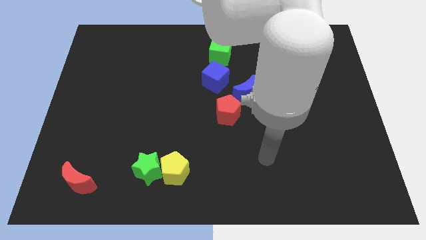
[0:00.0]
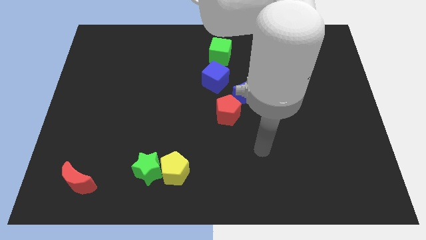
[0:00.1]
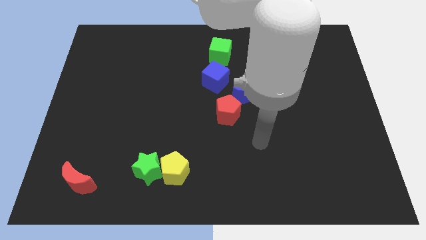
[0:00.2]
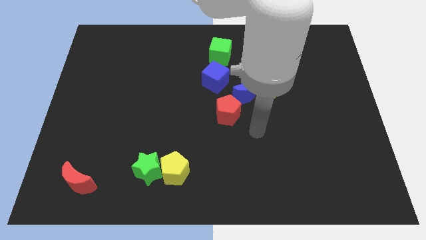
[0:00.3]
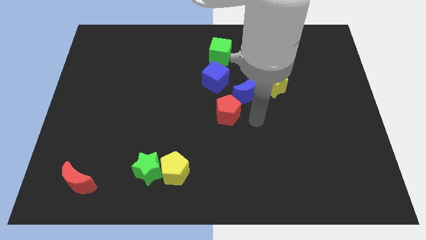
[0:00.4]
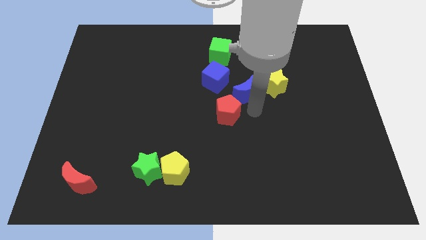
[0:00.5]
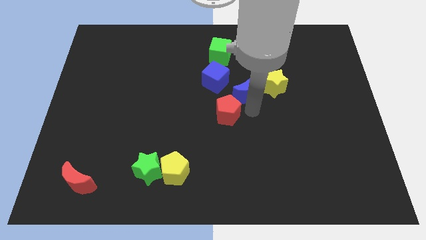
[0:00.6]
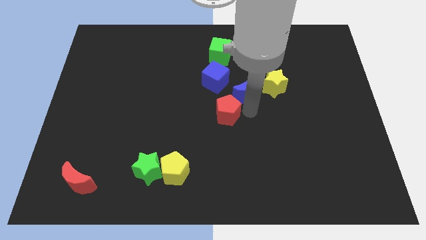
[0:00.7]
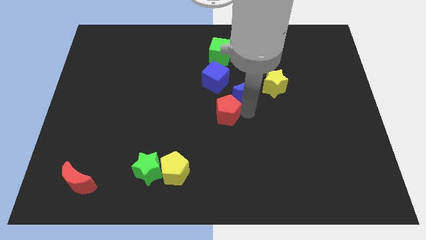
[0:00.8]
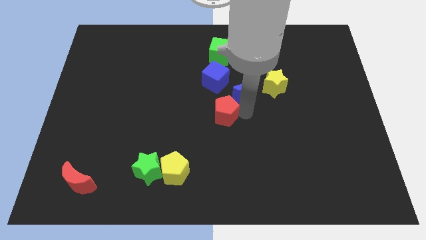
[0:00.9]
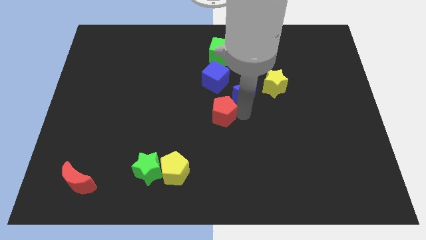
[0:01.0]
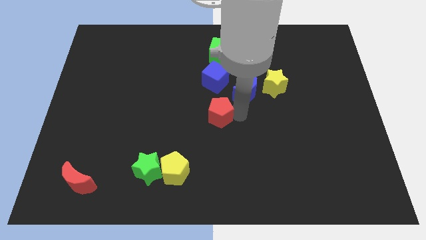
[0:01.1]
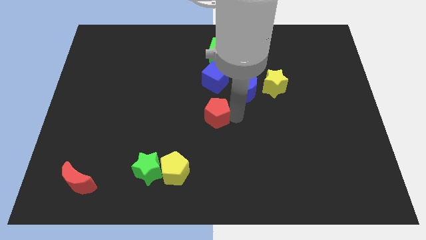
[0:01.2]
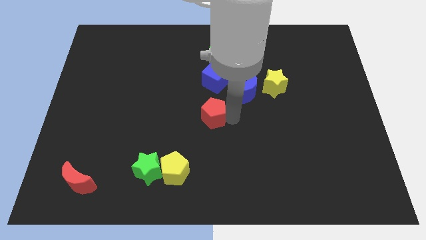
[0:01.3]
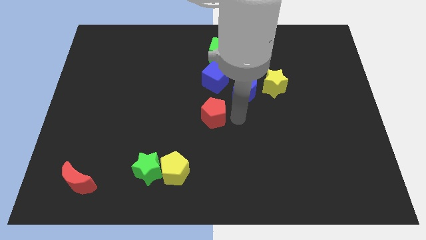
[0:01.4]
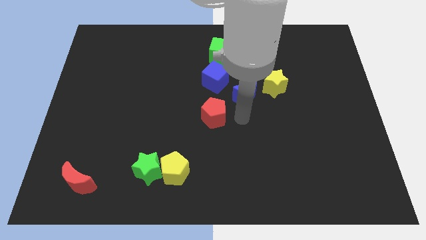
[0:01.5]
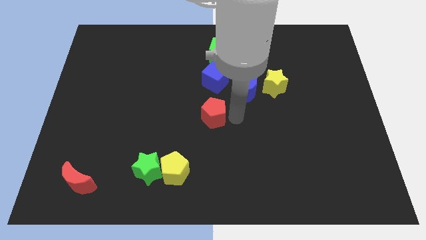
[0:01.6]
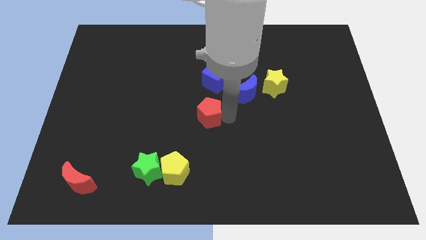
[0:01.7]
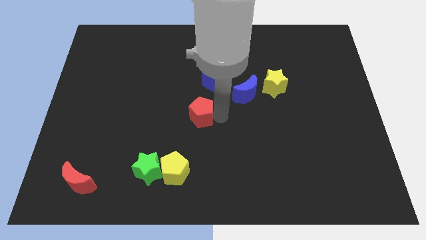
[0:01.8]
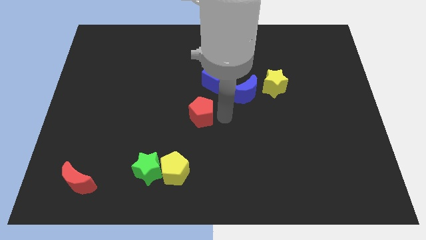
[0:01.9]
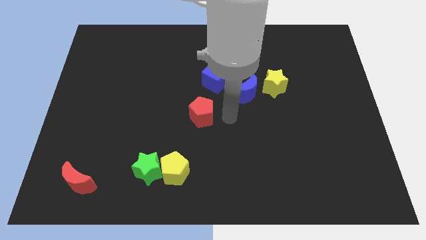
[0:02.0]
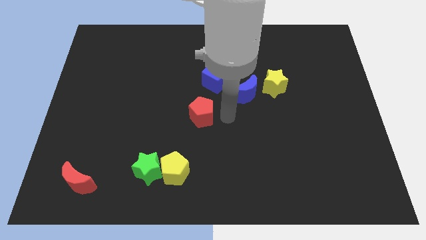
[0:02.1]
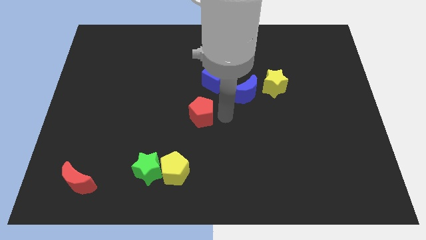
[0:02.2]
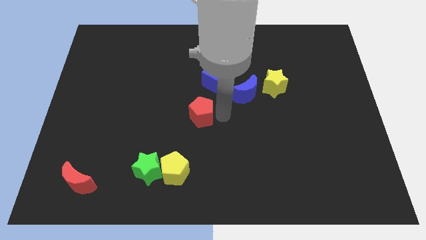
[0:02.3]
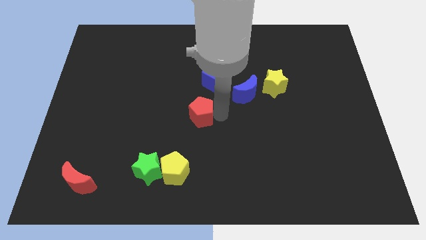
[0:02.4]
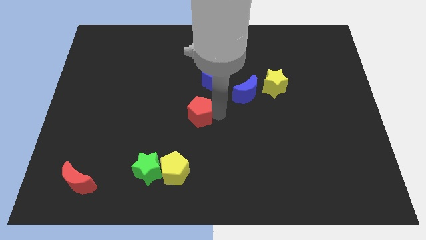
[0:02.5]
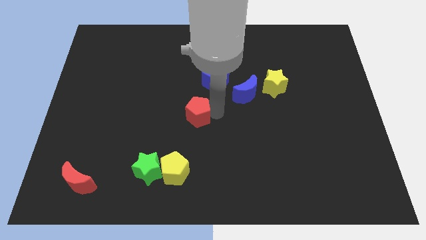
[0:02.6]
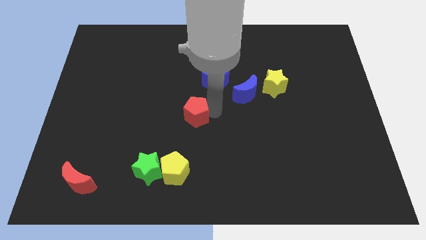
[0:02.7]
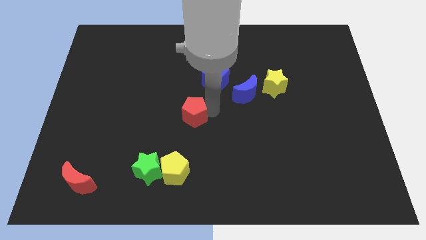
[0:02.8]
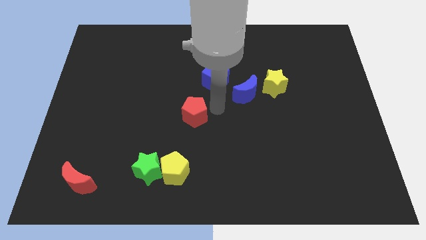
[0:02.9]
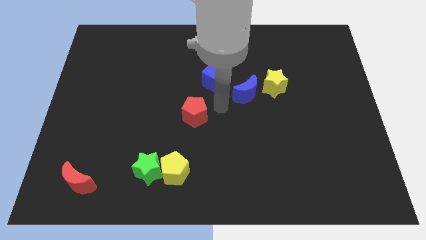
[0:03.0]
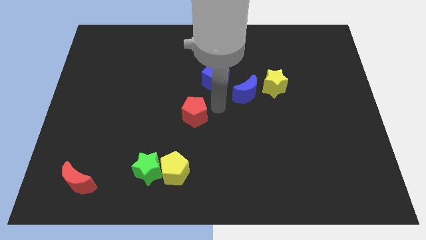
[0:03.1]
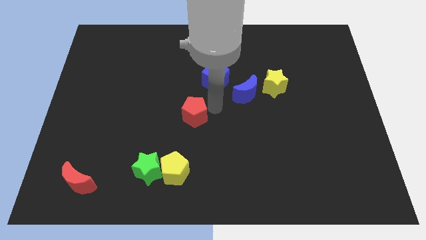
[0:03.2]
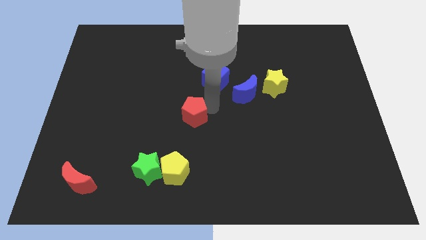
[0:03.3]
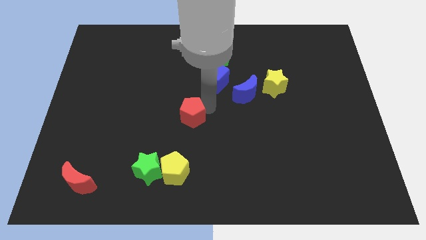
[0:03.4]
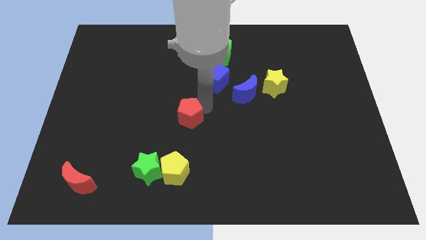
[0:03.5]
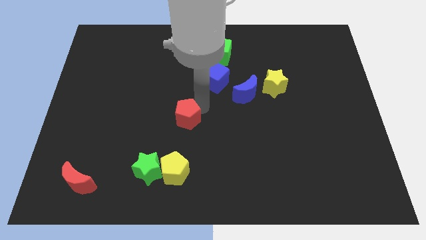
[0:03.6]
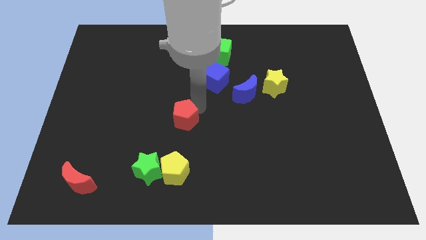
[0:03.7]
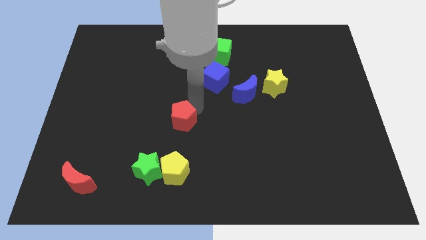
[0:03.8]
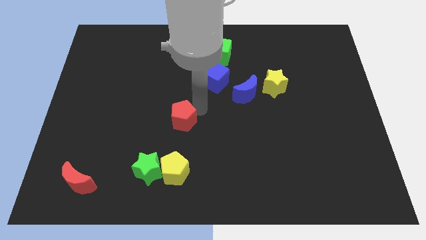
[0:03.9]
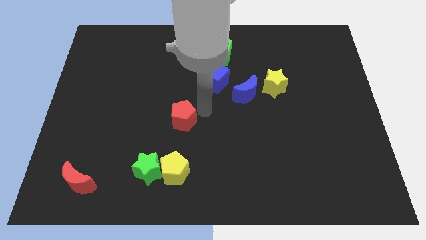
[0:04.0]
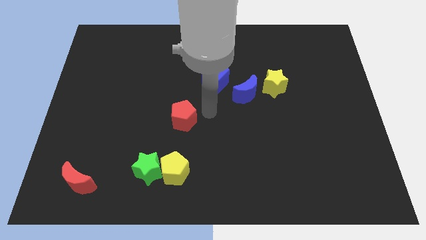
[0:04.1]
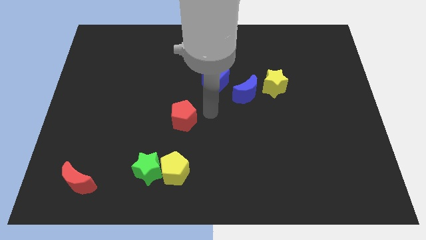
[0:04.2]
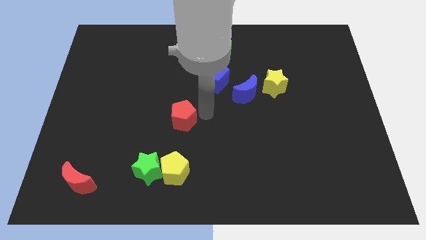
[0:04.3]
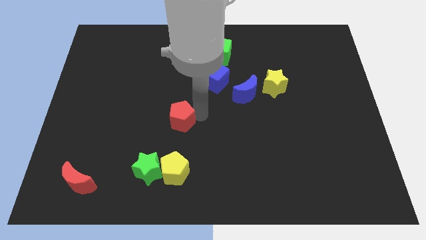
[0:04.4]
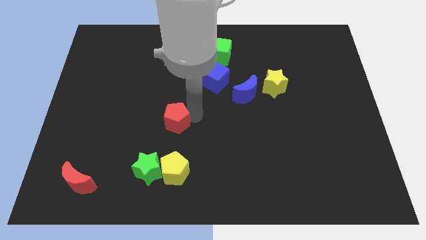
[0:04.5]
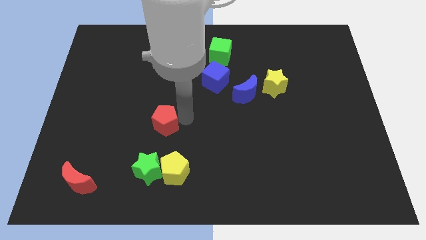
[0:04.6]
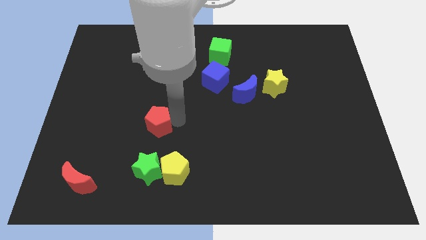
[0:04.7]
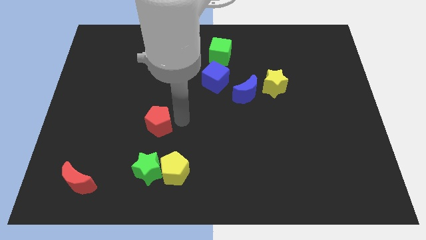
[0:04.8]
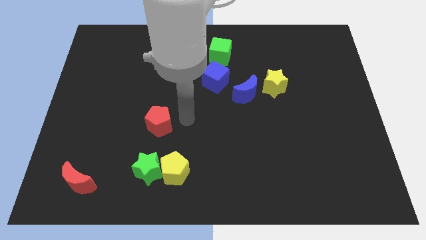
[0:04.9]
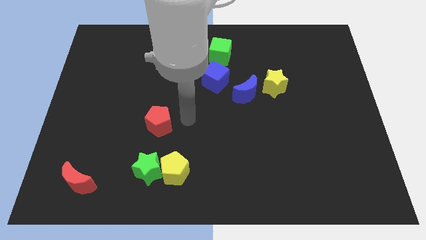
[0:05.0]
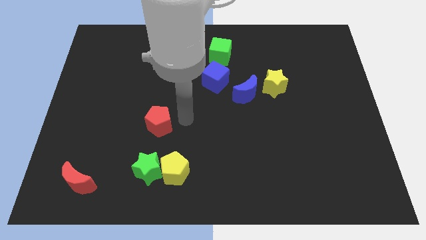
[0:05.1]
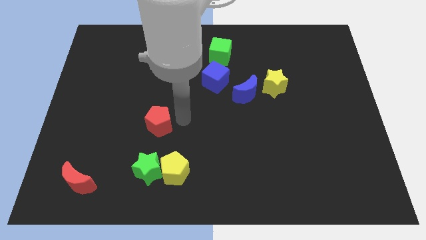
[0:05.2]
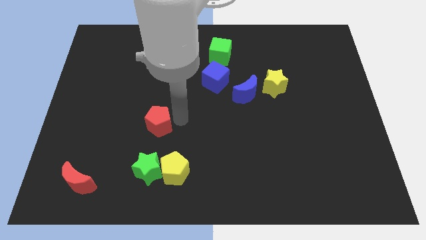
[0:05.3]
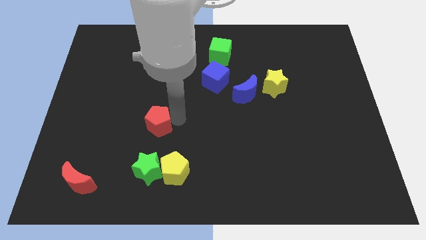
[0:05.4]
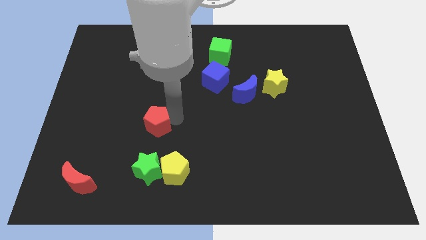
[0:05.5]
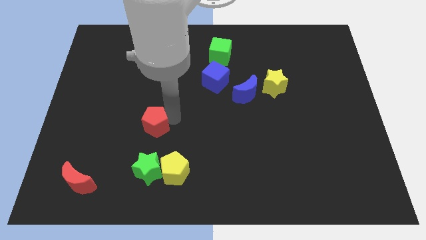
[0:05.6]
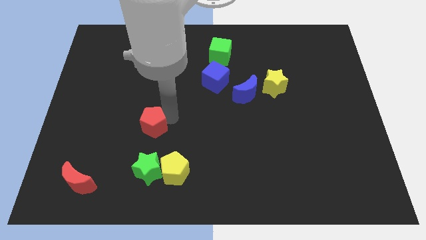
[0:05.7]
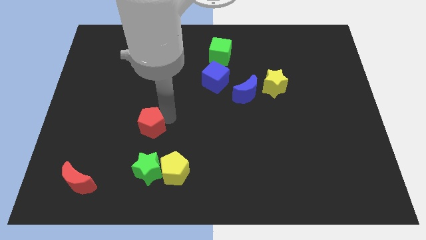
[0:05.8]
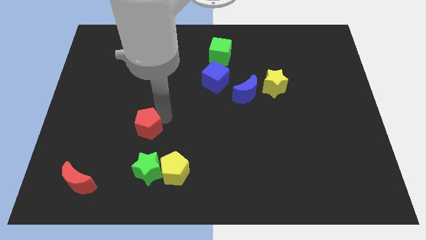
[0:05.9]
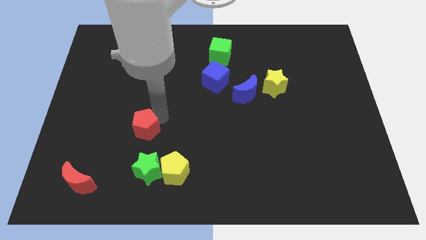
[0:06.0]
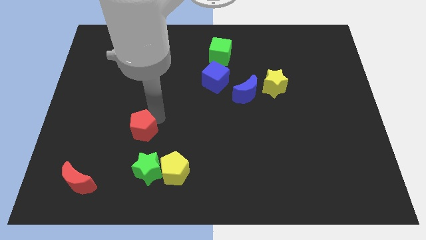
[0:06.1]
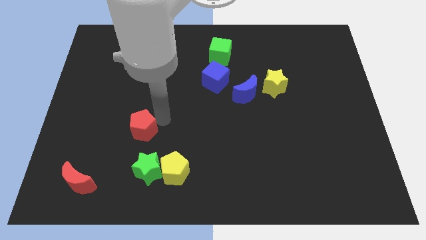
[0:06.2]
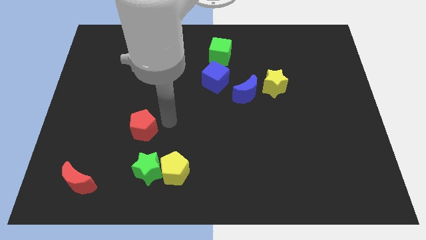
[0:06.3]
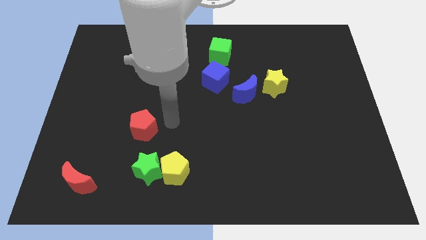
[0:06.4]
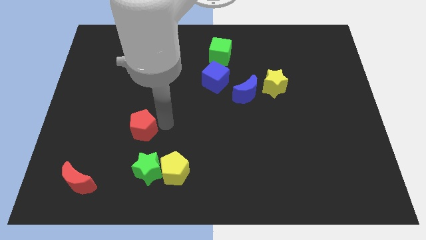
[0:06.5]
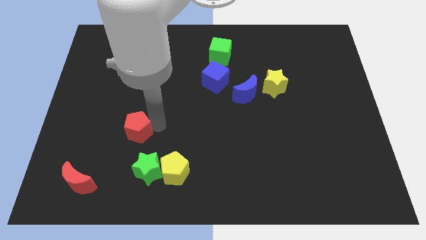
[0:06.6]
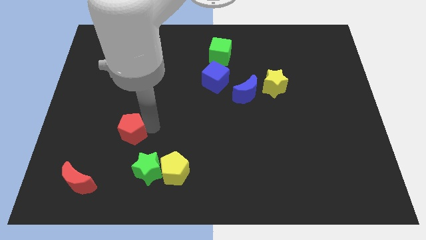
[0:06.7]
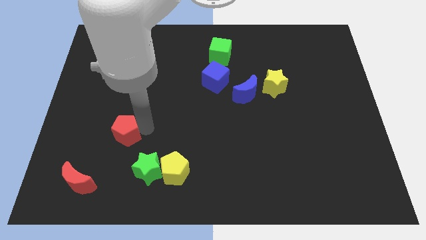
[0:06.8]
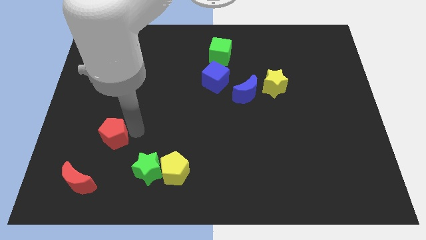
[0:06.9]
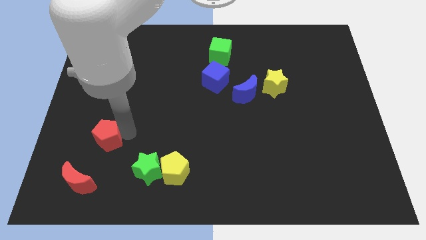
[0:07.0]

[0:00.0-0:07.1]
put the red pentagon above the red moon
